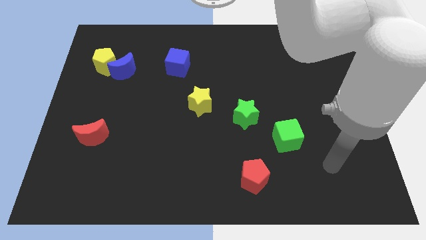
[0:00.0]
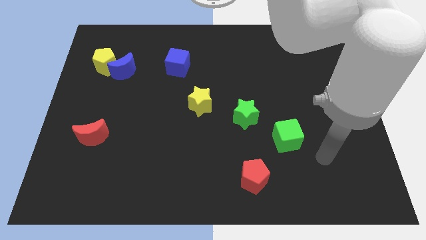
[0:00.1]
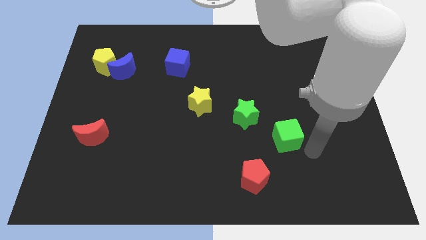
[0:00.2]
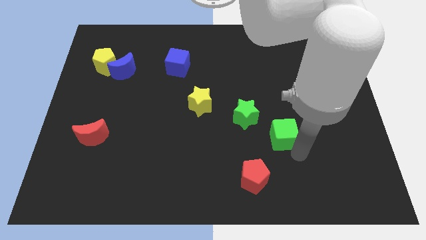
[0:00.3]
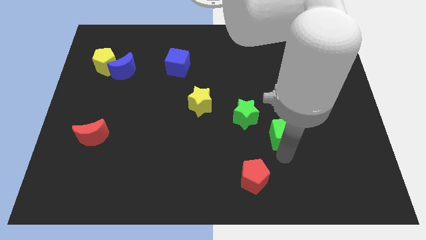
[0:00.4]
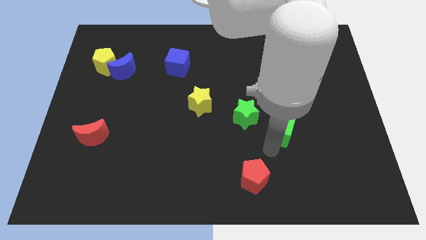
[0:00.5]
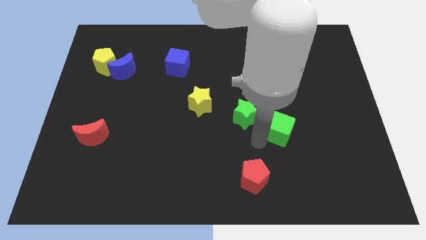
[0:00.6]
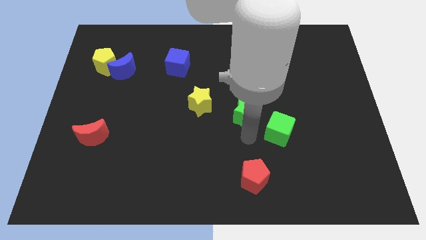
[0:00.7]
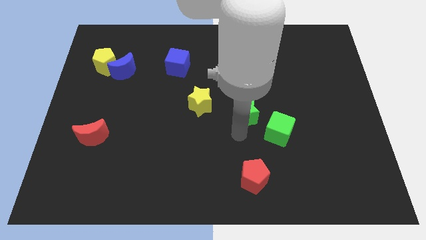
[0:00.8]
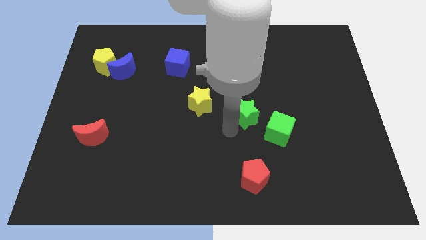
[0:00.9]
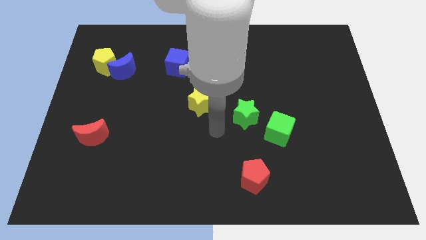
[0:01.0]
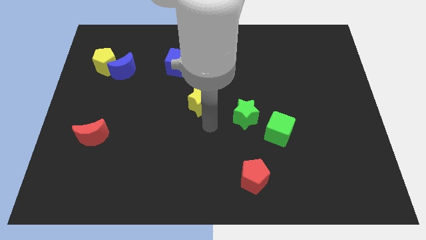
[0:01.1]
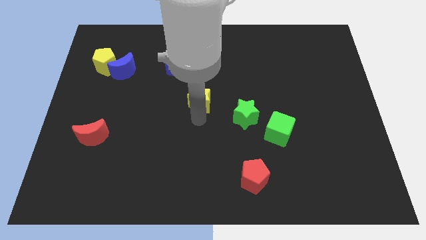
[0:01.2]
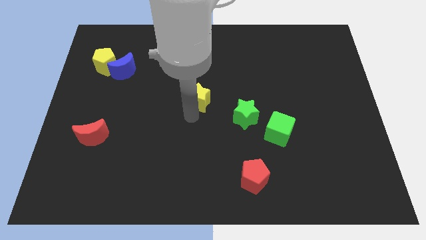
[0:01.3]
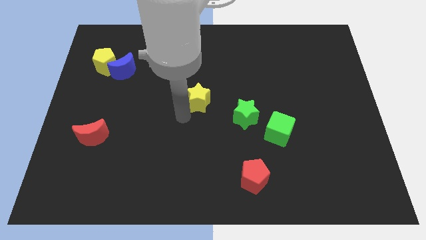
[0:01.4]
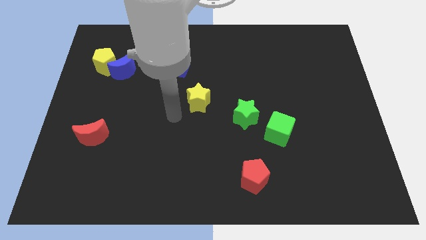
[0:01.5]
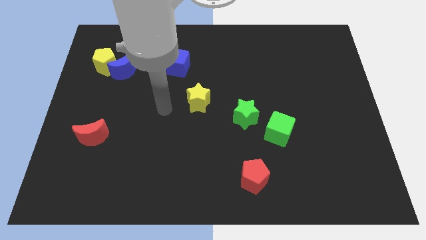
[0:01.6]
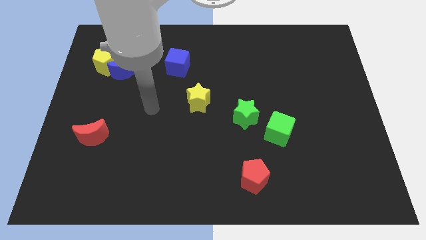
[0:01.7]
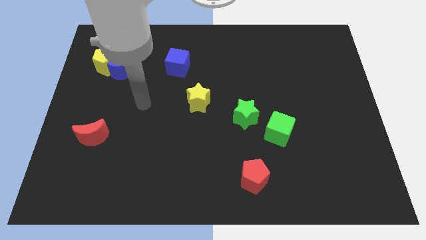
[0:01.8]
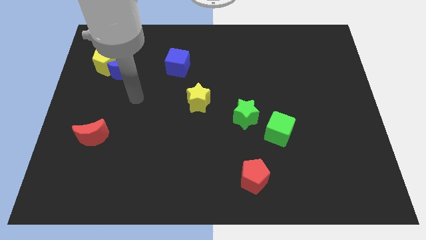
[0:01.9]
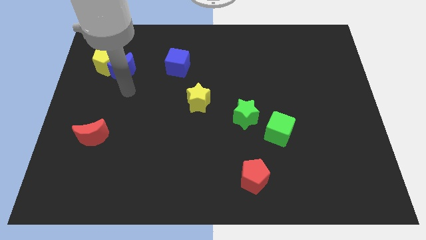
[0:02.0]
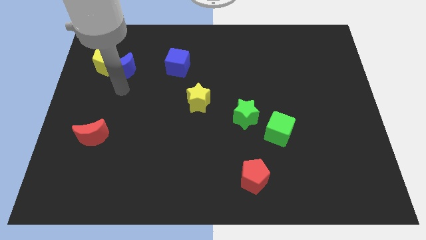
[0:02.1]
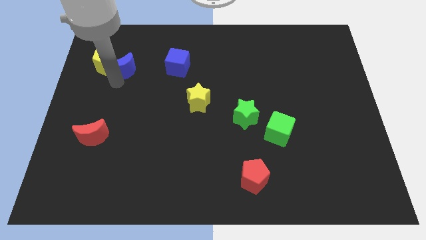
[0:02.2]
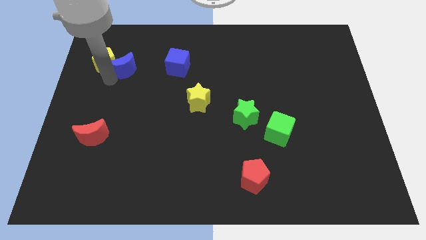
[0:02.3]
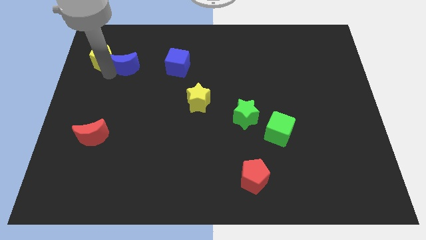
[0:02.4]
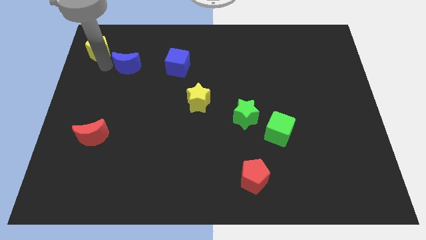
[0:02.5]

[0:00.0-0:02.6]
pull the blue moon apart from the yellow pentagon

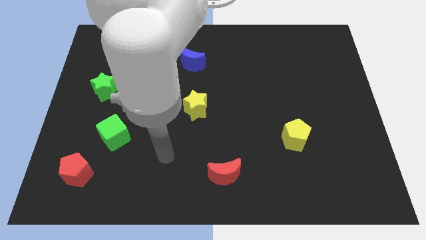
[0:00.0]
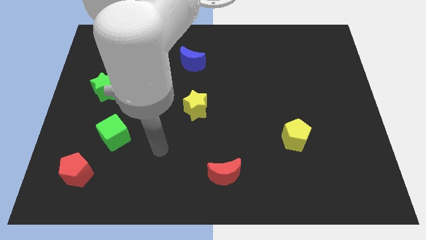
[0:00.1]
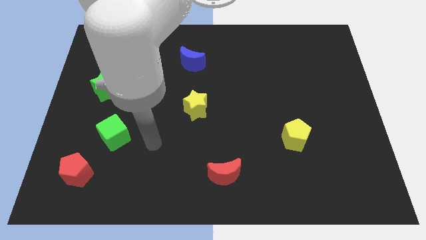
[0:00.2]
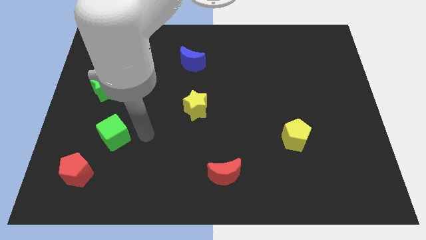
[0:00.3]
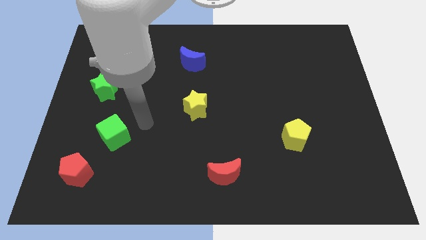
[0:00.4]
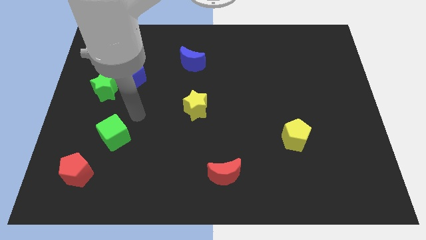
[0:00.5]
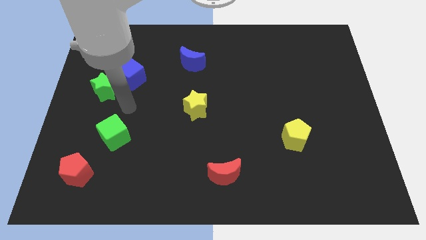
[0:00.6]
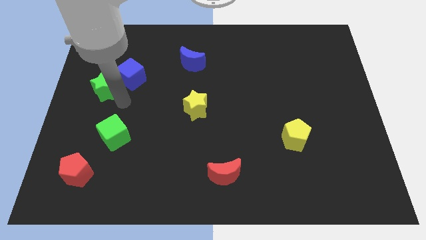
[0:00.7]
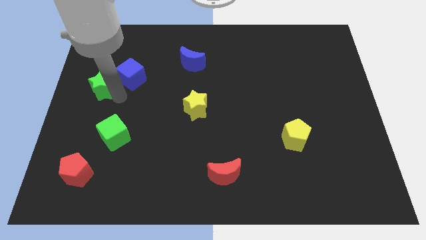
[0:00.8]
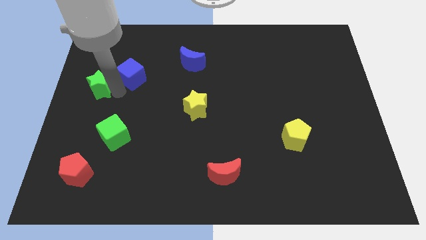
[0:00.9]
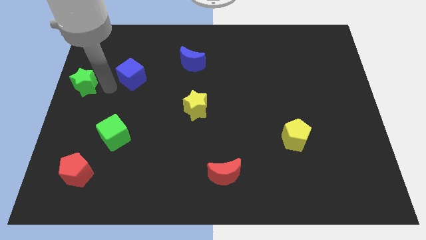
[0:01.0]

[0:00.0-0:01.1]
move the blue cube away from the green star

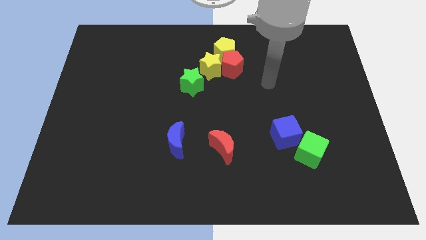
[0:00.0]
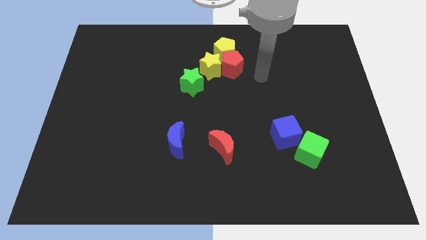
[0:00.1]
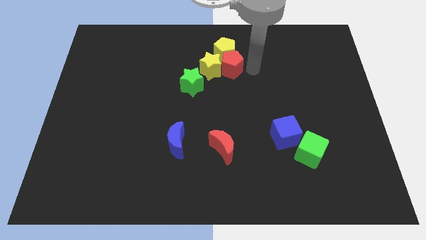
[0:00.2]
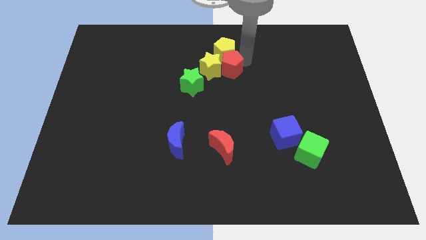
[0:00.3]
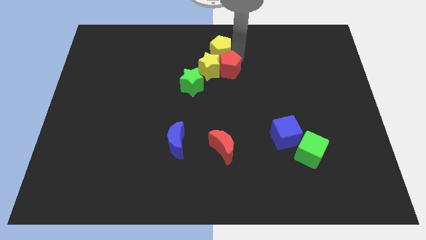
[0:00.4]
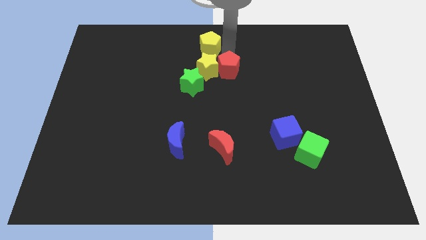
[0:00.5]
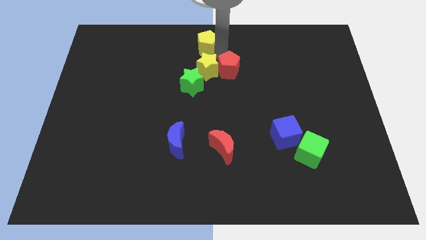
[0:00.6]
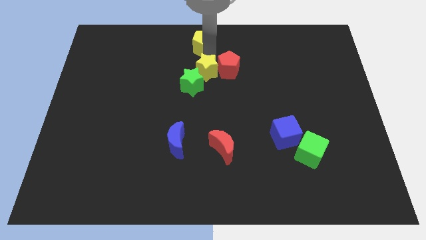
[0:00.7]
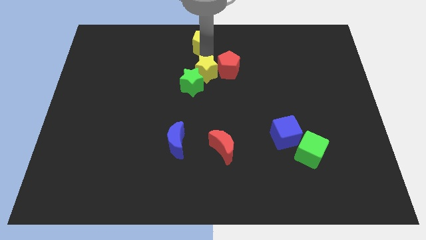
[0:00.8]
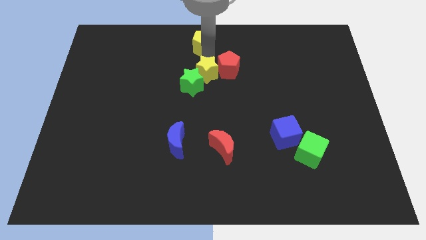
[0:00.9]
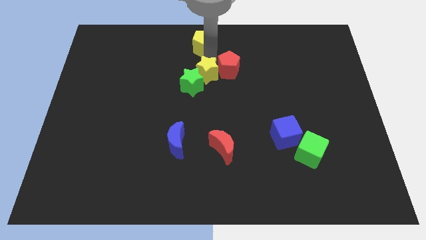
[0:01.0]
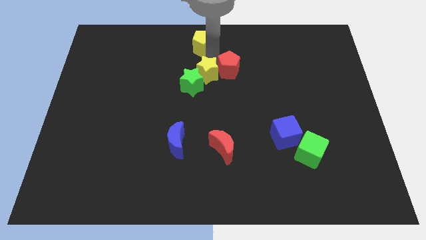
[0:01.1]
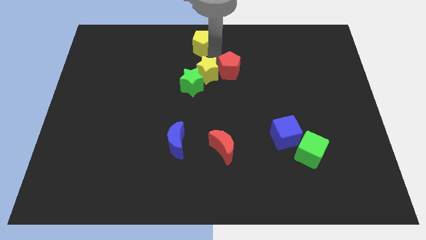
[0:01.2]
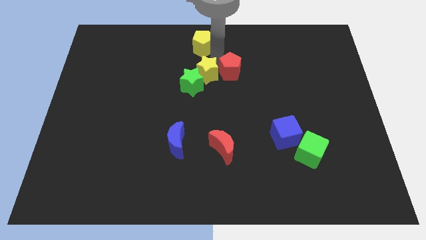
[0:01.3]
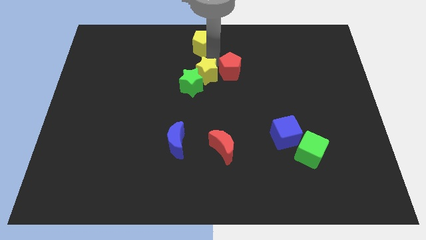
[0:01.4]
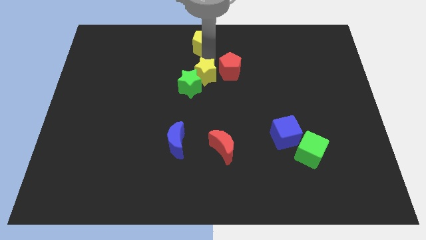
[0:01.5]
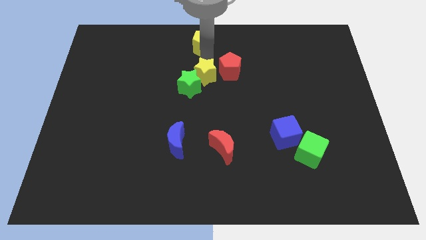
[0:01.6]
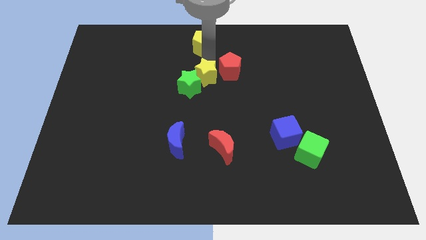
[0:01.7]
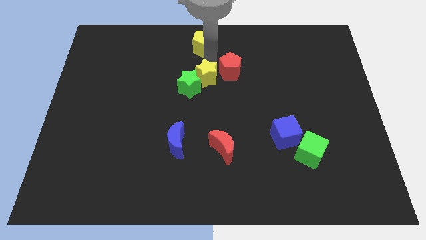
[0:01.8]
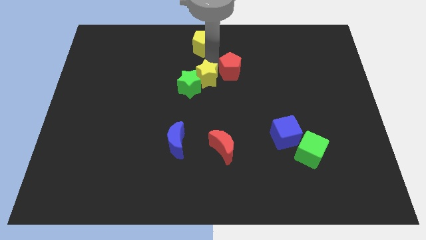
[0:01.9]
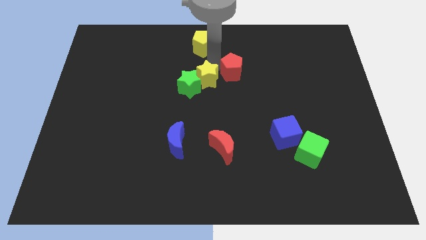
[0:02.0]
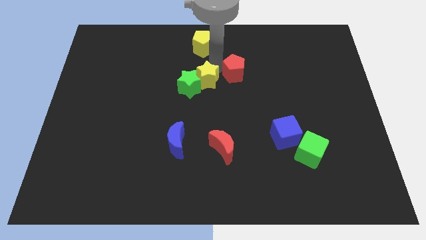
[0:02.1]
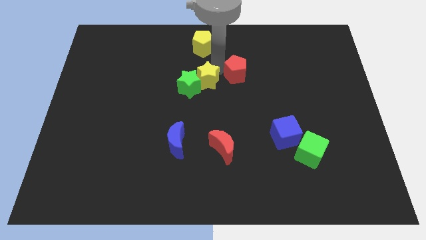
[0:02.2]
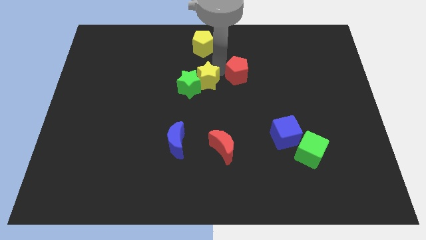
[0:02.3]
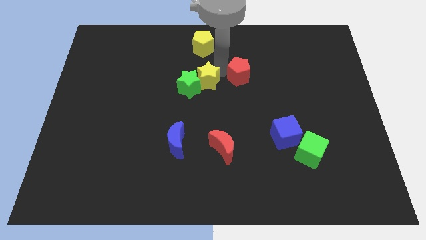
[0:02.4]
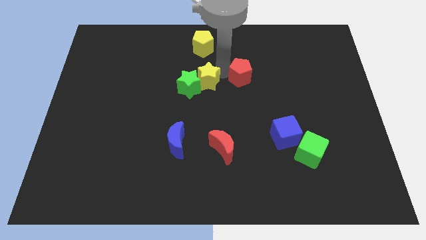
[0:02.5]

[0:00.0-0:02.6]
move the red pentagon away from the yellow pentagon and yellow star

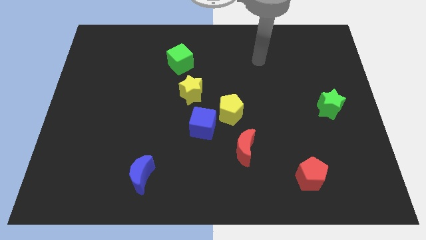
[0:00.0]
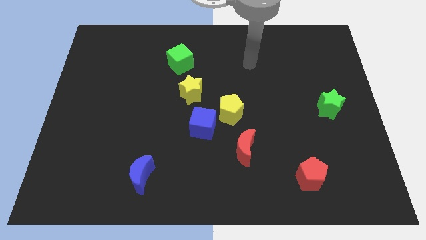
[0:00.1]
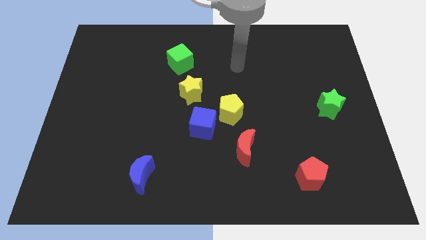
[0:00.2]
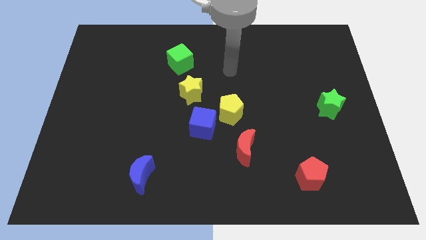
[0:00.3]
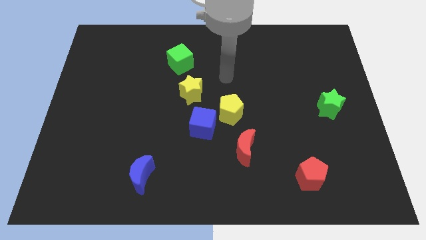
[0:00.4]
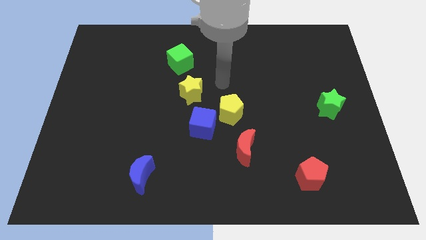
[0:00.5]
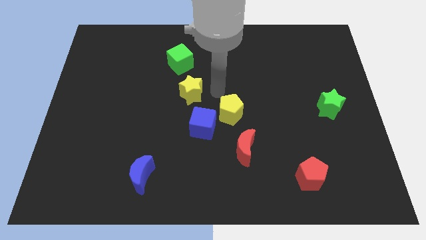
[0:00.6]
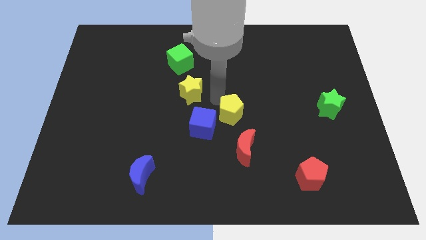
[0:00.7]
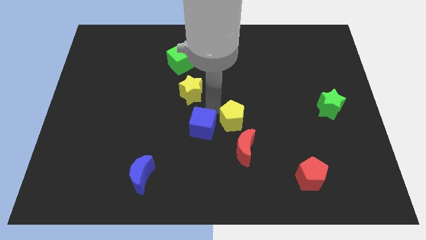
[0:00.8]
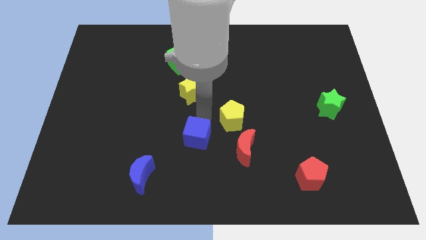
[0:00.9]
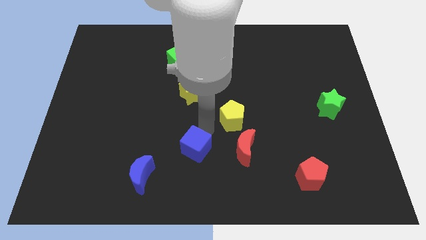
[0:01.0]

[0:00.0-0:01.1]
separate the yellow pentagon from the blue cube

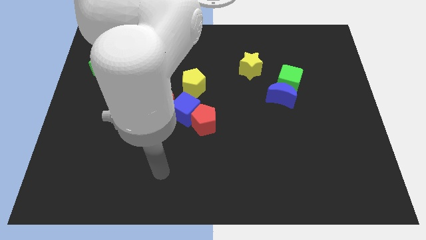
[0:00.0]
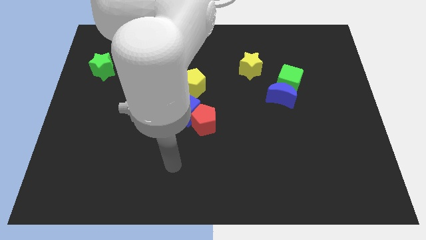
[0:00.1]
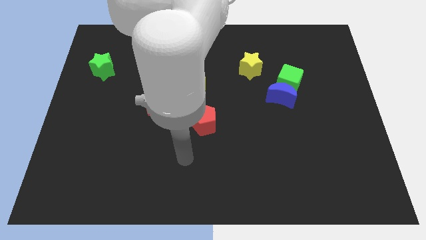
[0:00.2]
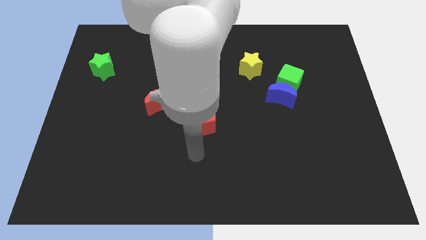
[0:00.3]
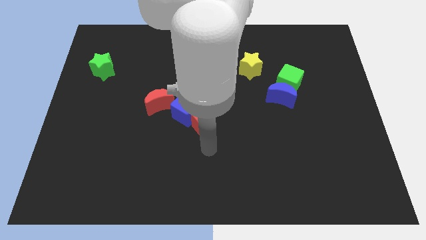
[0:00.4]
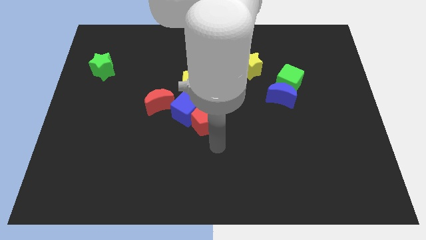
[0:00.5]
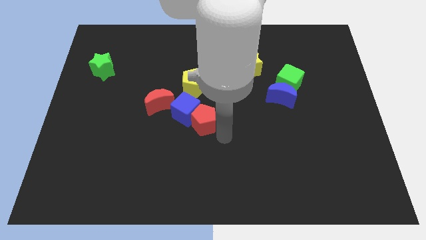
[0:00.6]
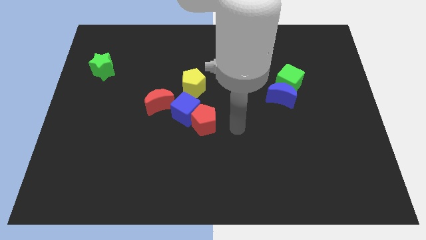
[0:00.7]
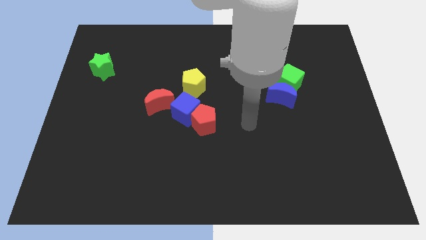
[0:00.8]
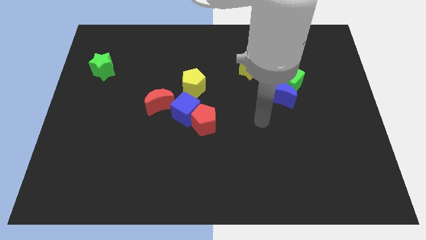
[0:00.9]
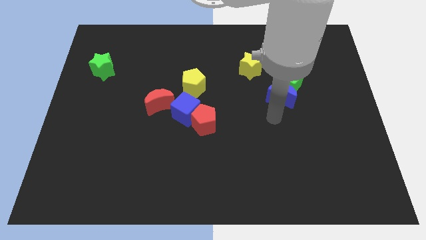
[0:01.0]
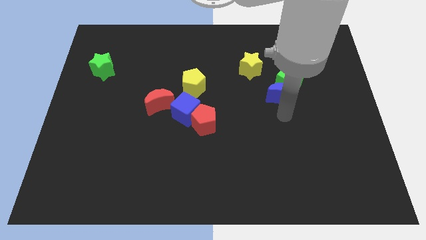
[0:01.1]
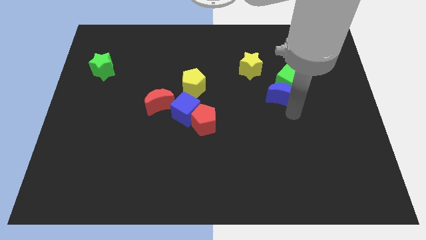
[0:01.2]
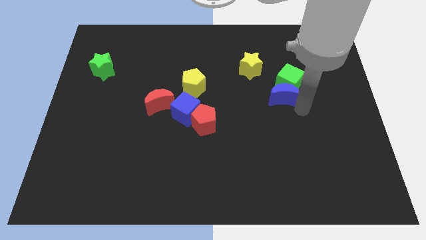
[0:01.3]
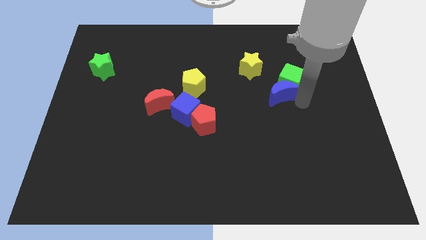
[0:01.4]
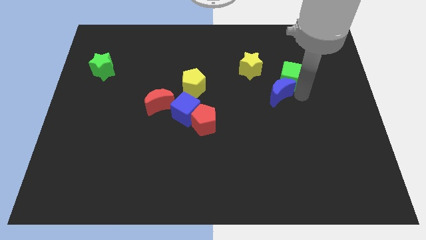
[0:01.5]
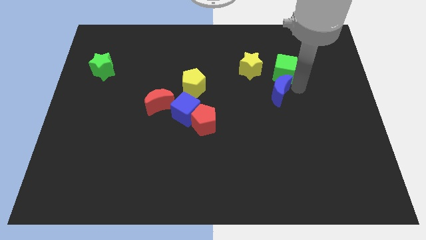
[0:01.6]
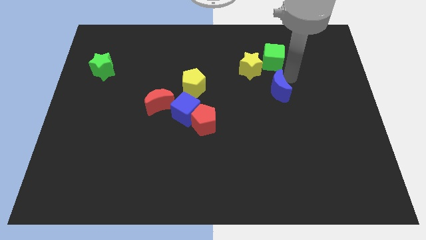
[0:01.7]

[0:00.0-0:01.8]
separate the blue moon from the green cube
